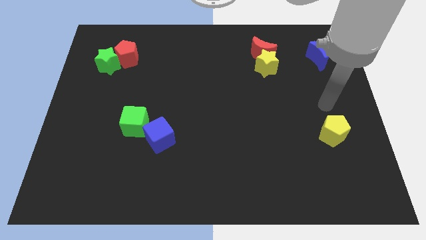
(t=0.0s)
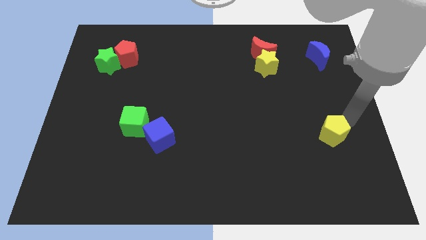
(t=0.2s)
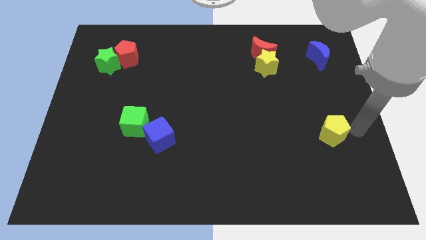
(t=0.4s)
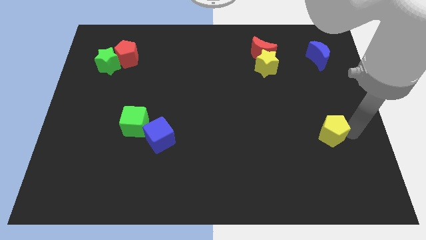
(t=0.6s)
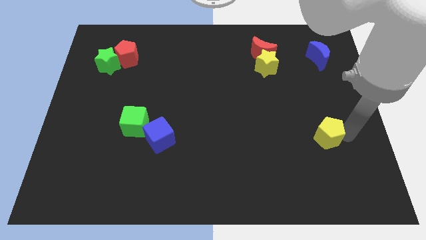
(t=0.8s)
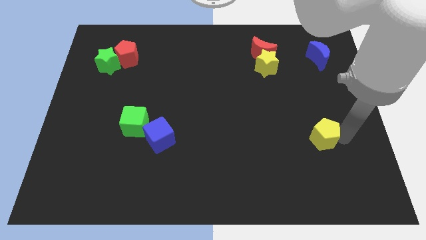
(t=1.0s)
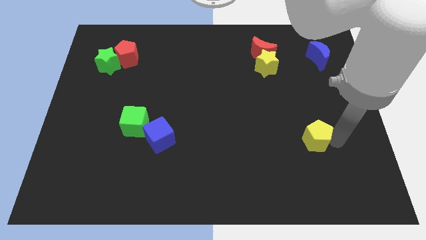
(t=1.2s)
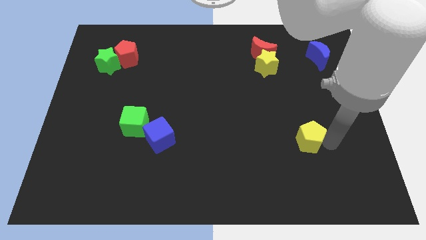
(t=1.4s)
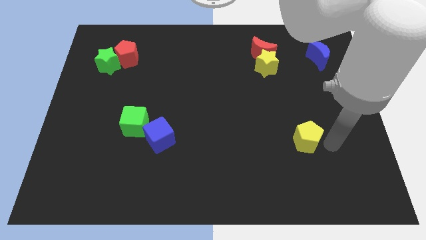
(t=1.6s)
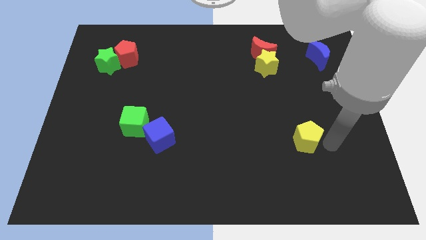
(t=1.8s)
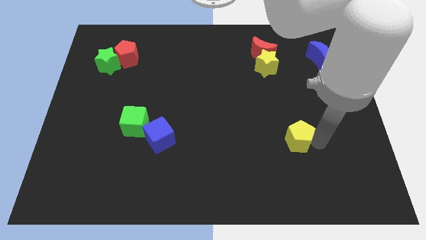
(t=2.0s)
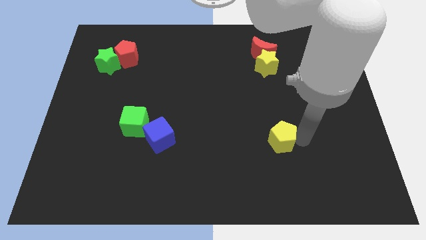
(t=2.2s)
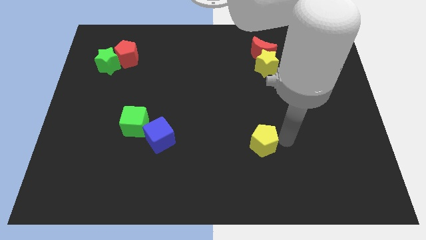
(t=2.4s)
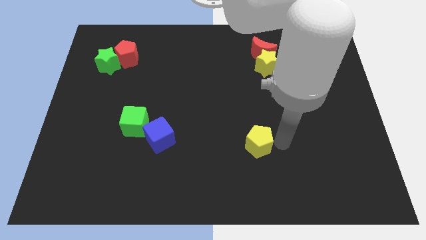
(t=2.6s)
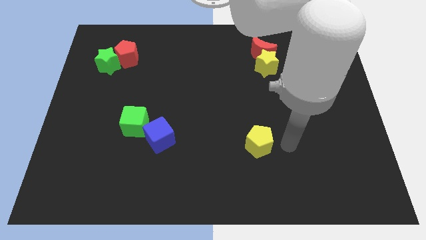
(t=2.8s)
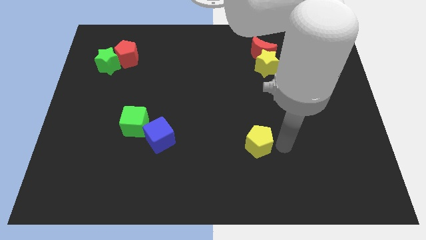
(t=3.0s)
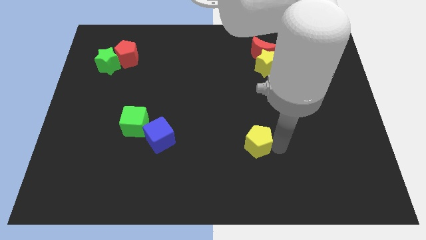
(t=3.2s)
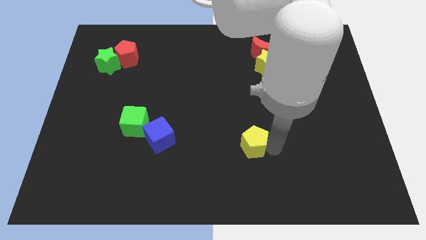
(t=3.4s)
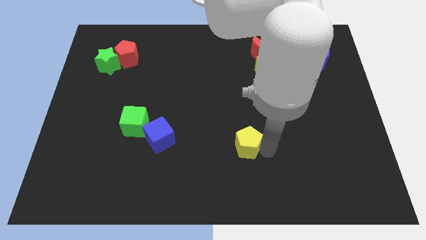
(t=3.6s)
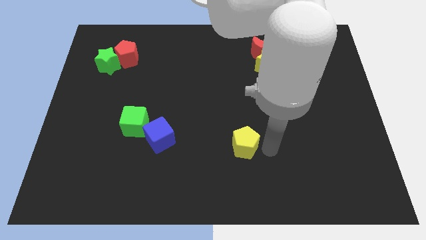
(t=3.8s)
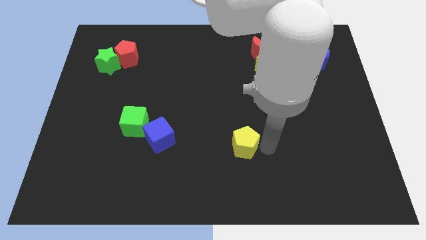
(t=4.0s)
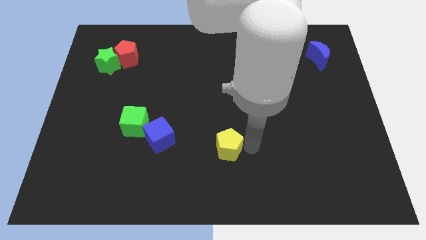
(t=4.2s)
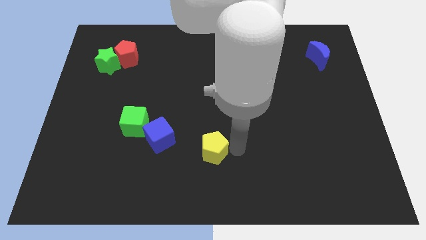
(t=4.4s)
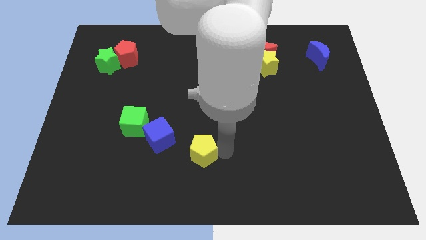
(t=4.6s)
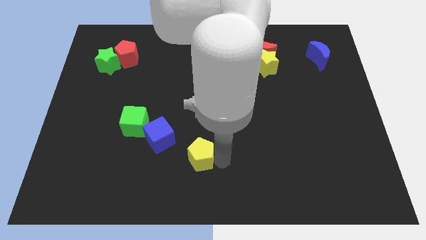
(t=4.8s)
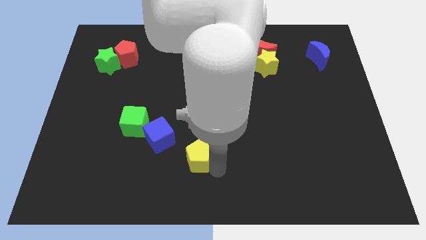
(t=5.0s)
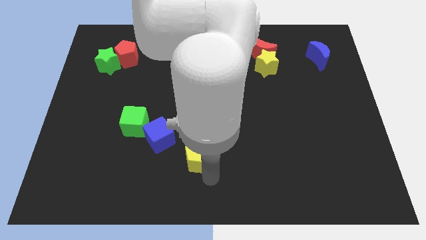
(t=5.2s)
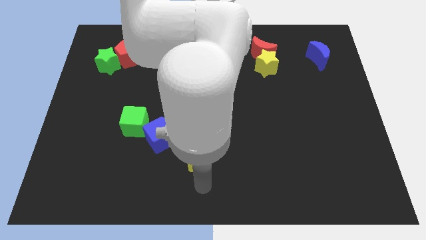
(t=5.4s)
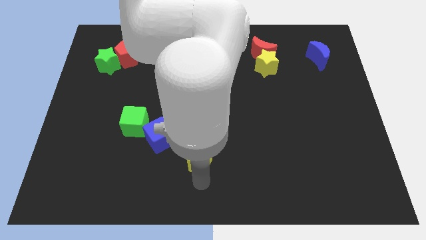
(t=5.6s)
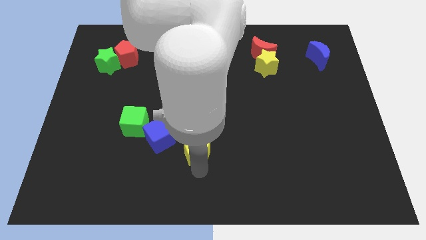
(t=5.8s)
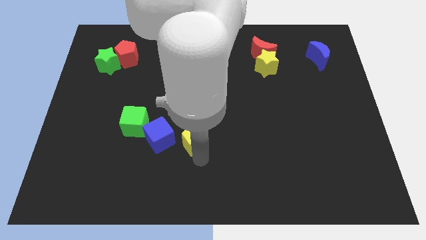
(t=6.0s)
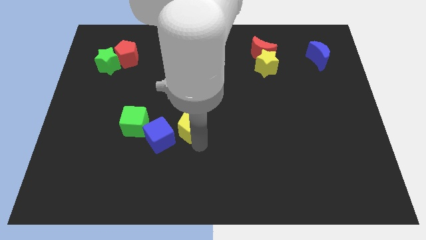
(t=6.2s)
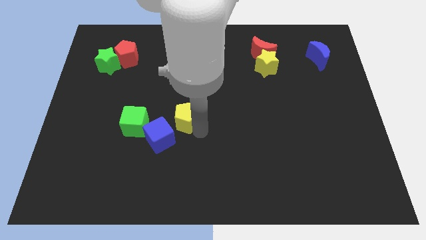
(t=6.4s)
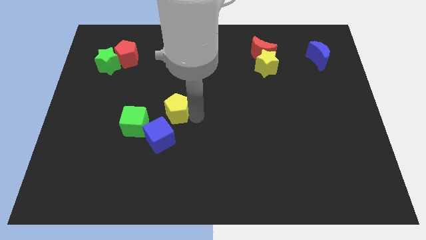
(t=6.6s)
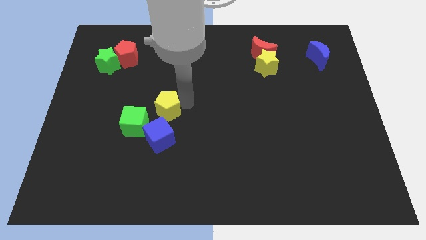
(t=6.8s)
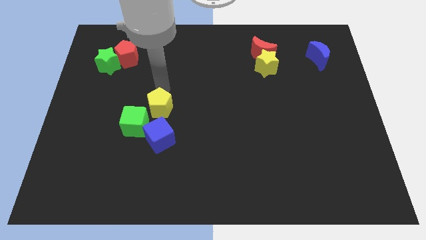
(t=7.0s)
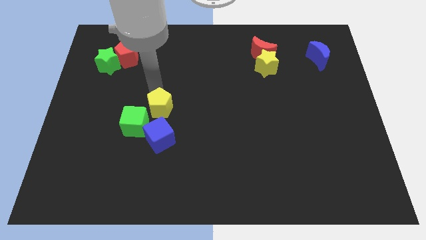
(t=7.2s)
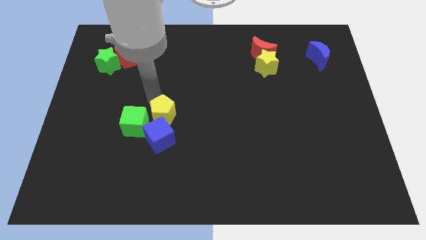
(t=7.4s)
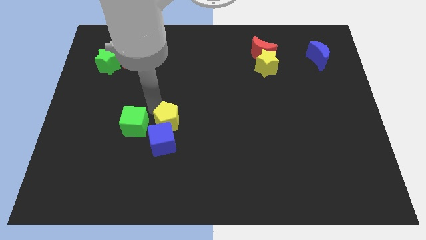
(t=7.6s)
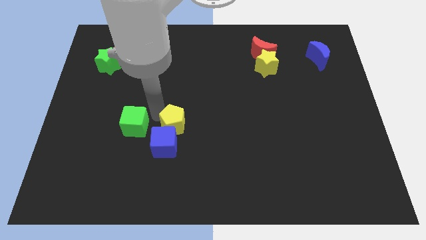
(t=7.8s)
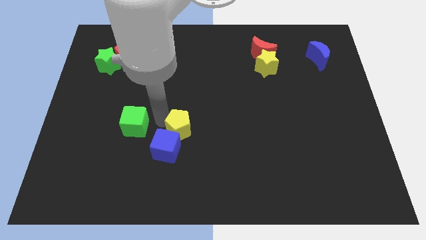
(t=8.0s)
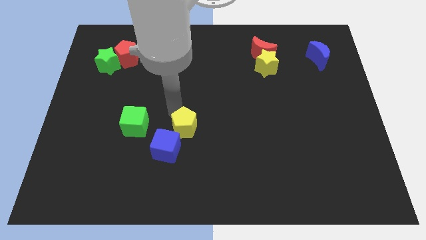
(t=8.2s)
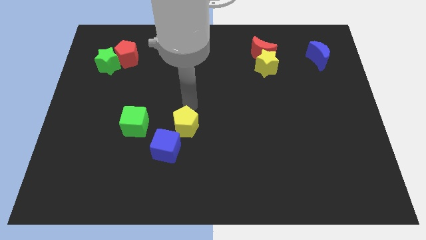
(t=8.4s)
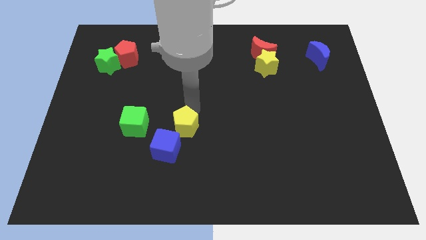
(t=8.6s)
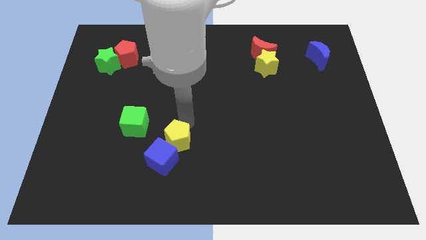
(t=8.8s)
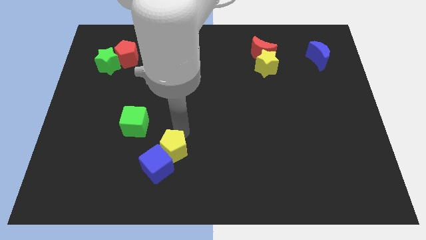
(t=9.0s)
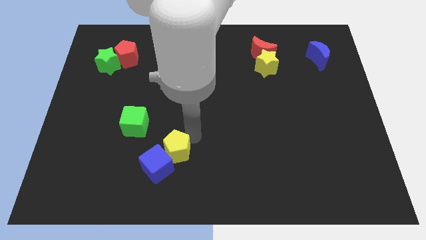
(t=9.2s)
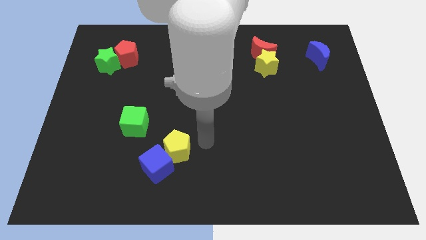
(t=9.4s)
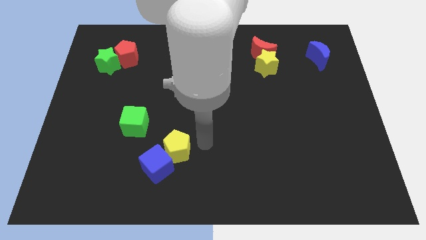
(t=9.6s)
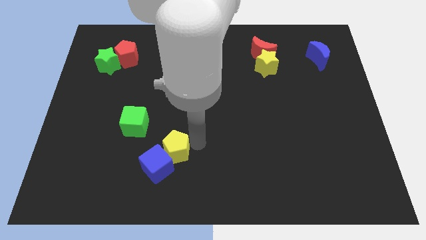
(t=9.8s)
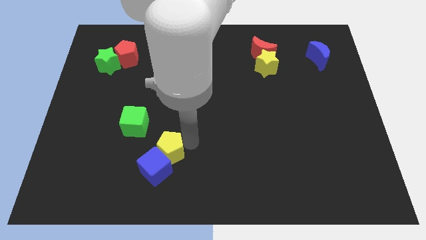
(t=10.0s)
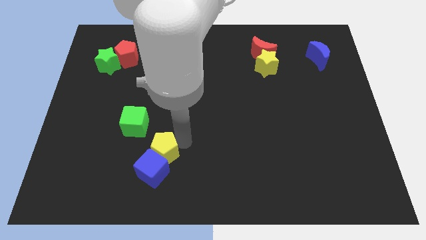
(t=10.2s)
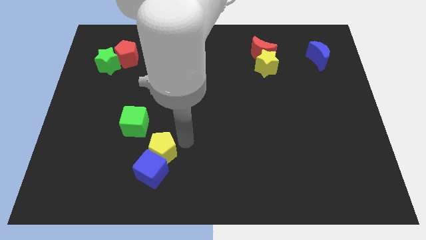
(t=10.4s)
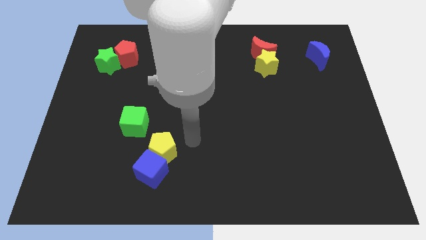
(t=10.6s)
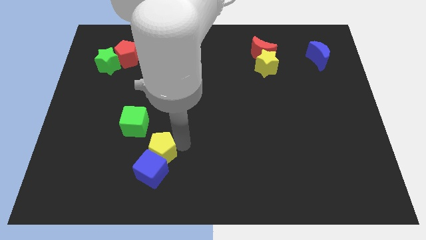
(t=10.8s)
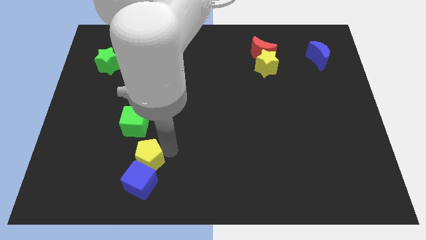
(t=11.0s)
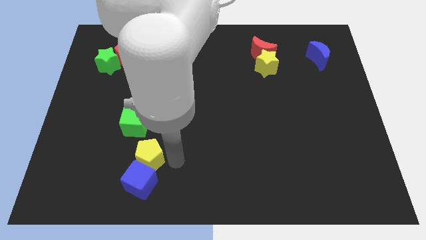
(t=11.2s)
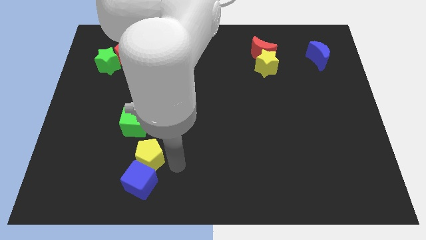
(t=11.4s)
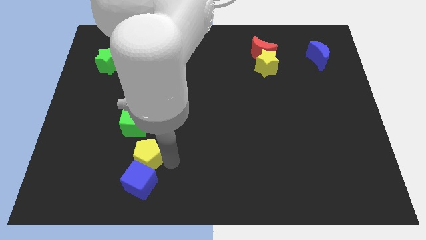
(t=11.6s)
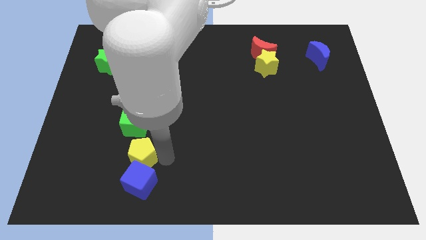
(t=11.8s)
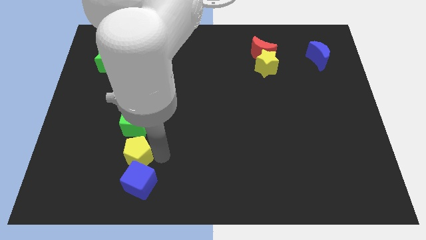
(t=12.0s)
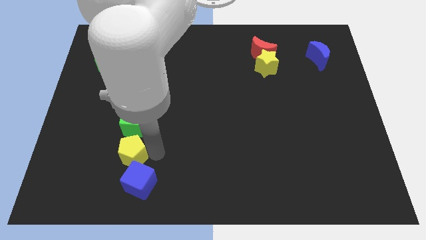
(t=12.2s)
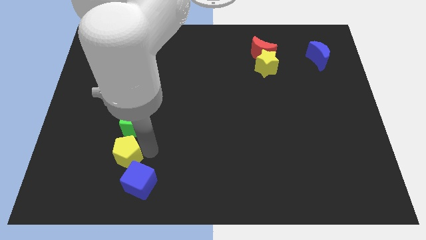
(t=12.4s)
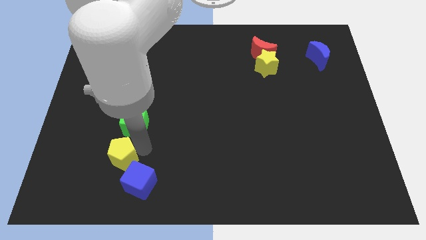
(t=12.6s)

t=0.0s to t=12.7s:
push the yellow pentagon to the bottom left side of the green cube

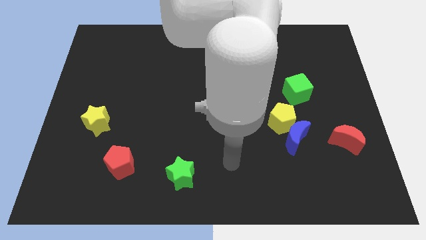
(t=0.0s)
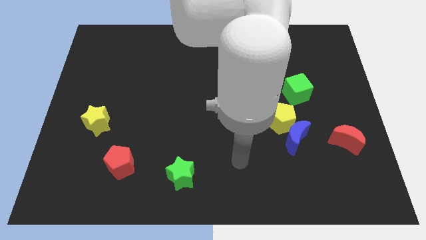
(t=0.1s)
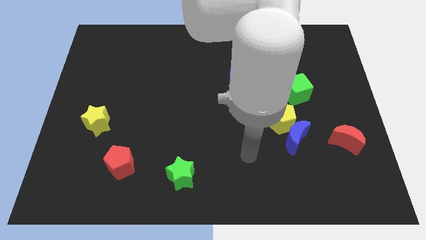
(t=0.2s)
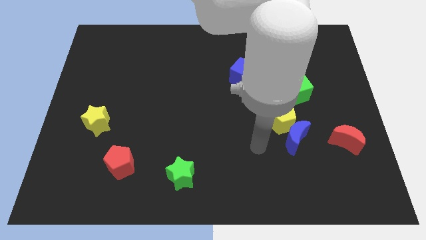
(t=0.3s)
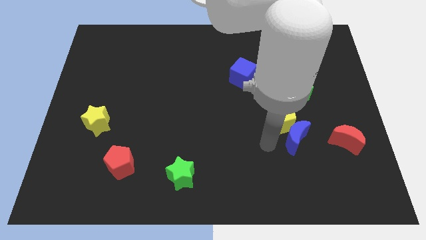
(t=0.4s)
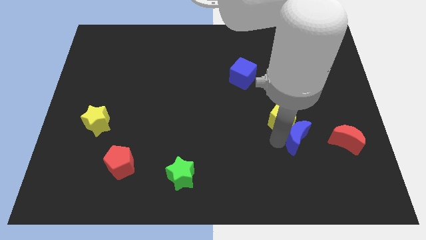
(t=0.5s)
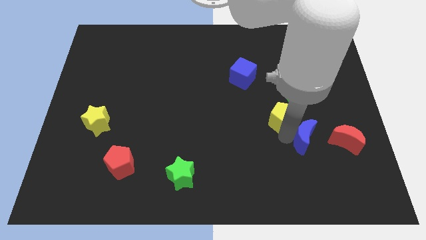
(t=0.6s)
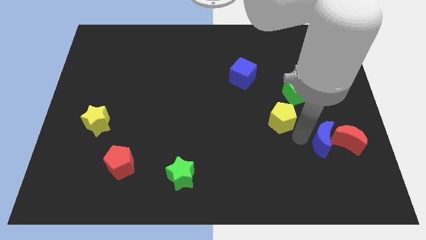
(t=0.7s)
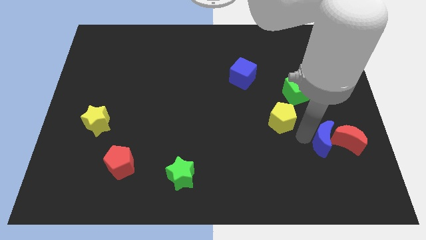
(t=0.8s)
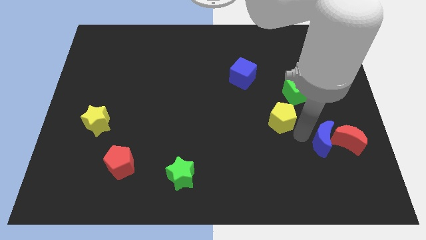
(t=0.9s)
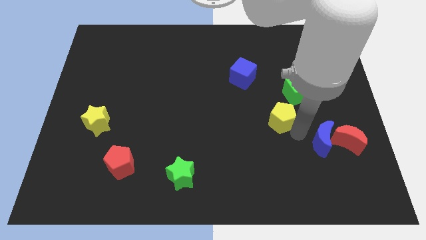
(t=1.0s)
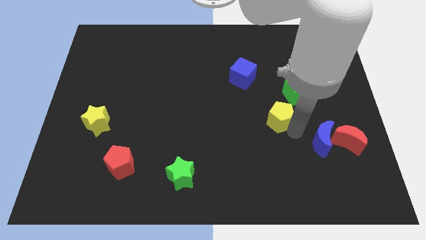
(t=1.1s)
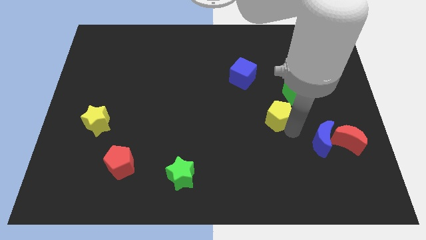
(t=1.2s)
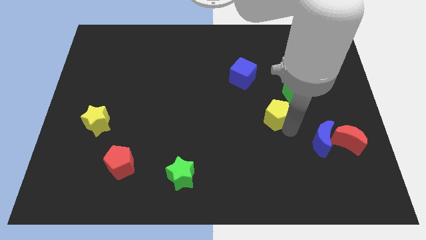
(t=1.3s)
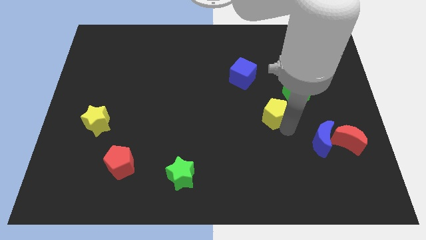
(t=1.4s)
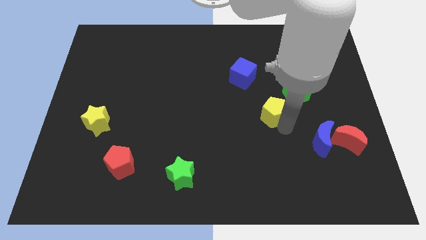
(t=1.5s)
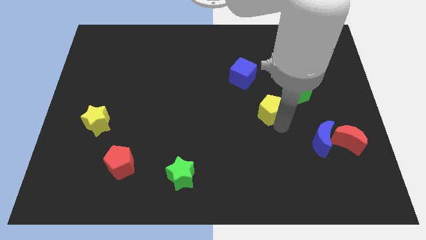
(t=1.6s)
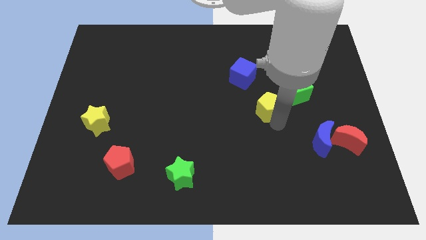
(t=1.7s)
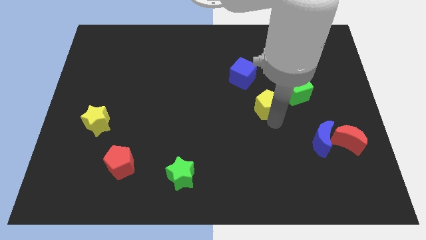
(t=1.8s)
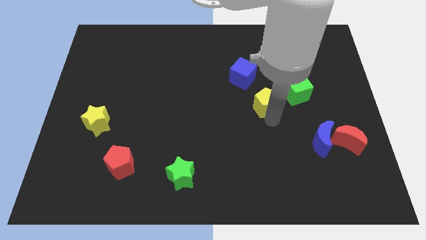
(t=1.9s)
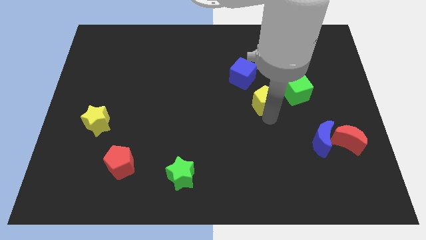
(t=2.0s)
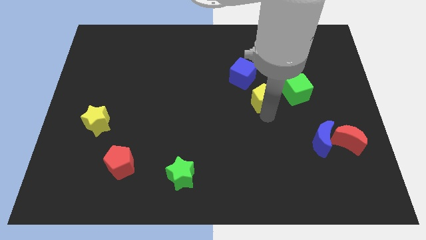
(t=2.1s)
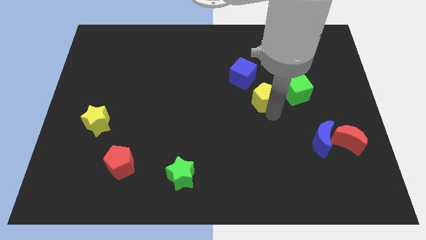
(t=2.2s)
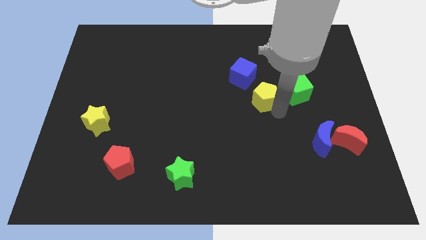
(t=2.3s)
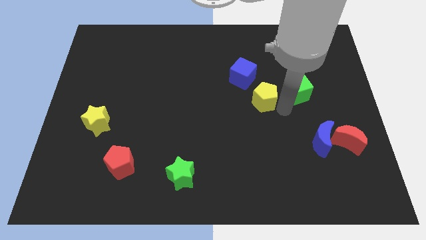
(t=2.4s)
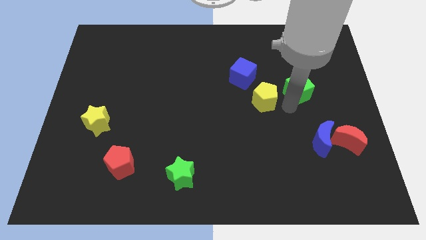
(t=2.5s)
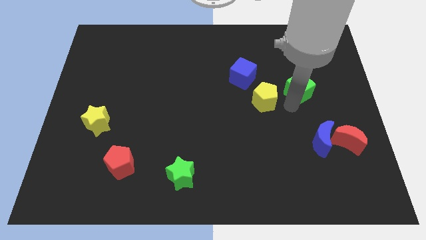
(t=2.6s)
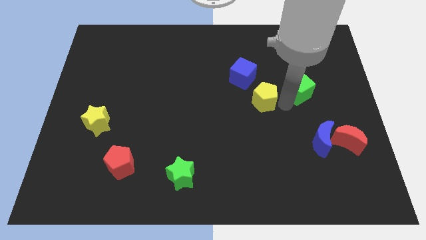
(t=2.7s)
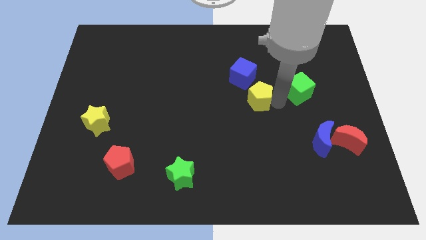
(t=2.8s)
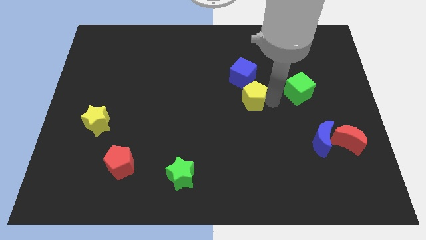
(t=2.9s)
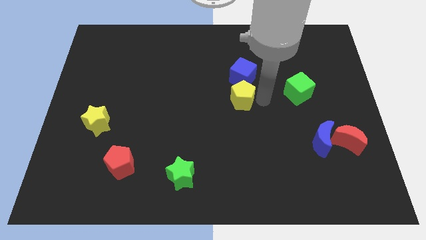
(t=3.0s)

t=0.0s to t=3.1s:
put the yellow pentagon to the bottom left side of the blue cube
